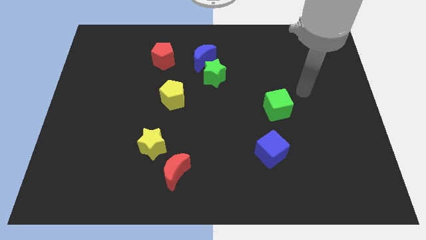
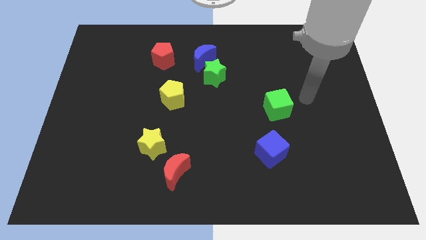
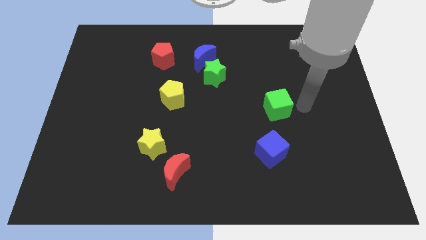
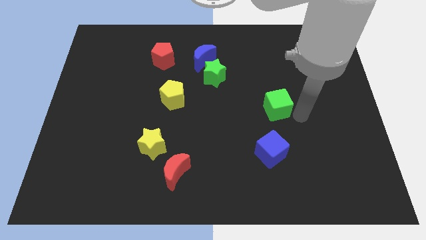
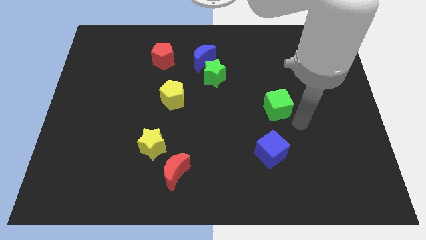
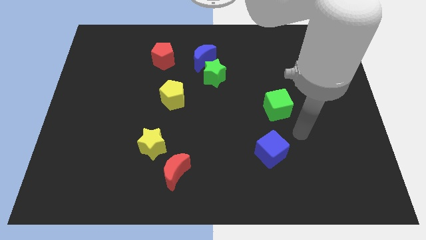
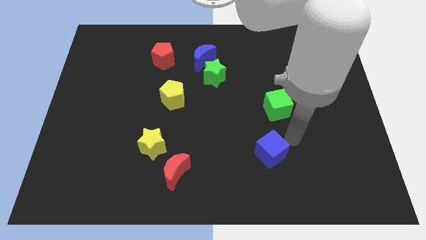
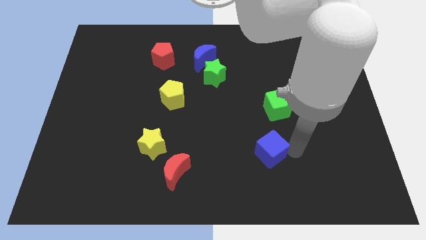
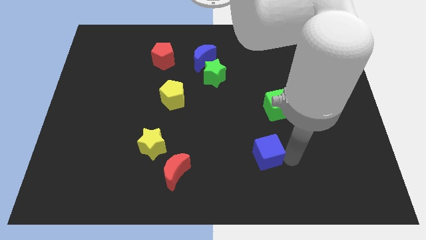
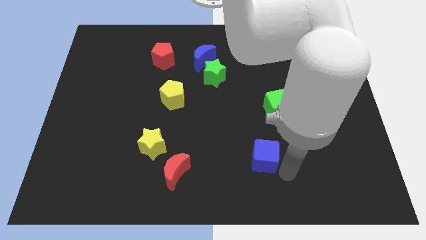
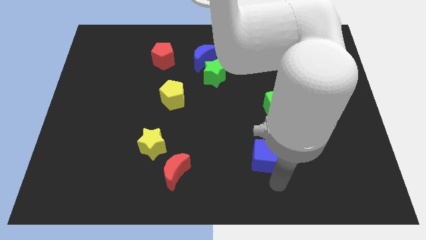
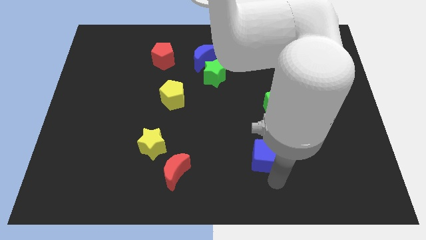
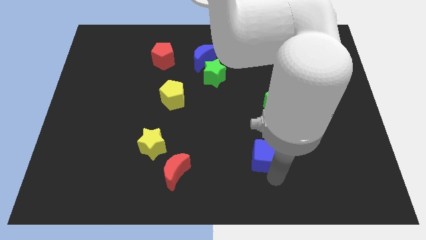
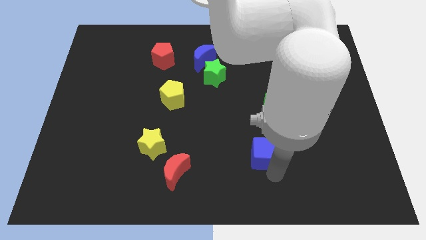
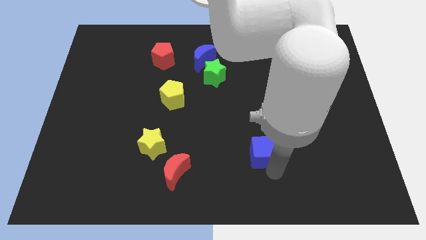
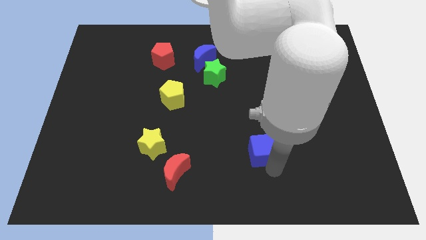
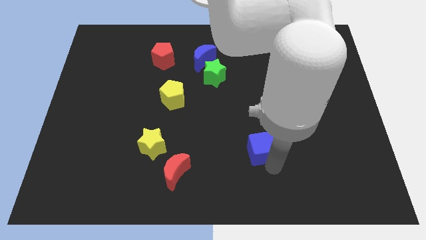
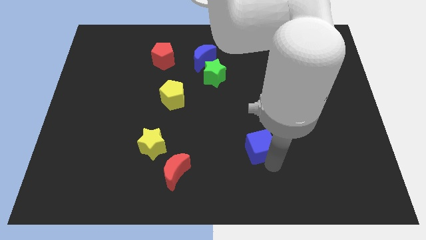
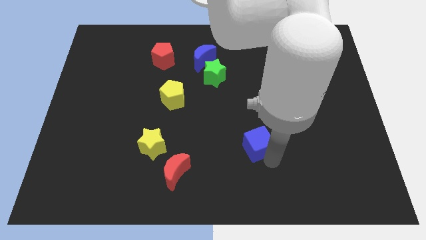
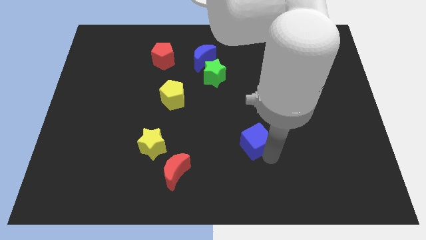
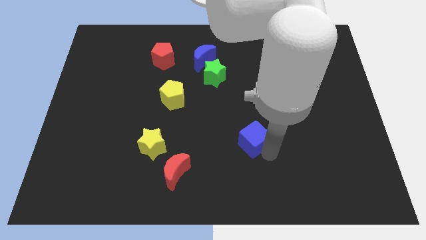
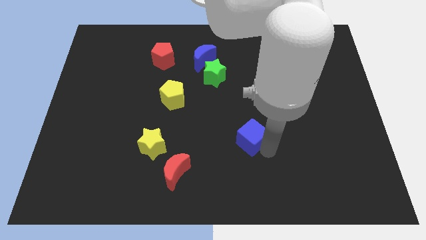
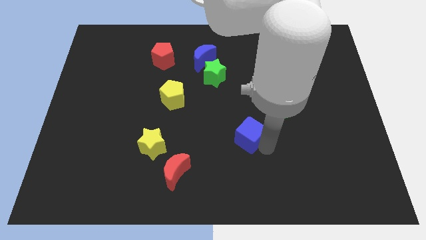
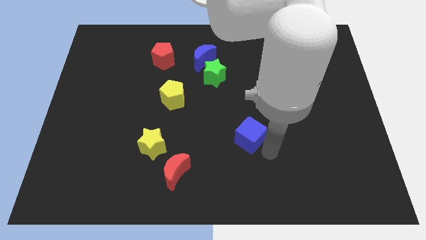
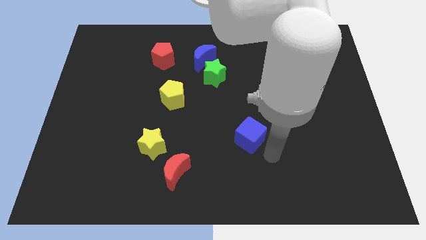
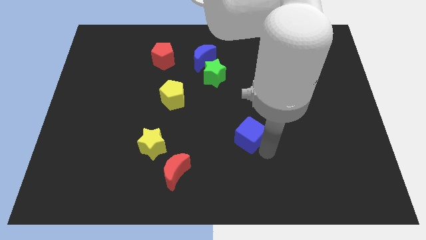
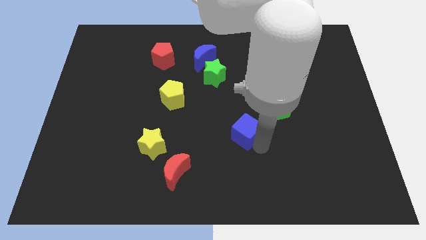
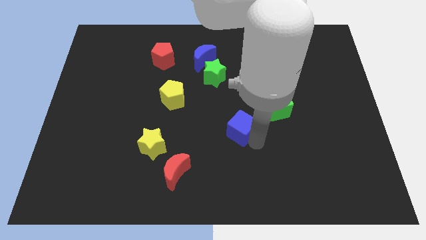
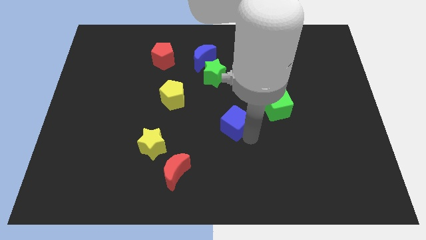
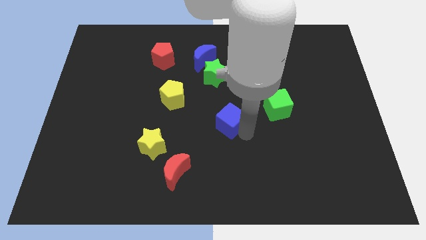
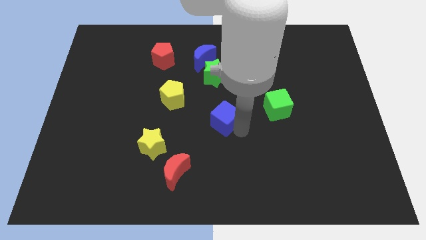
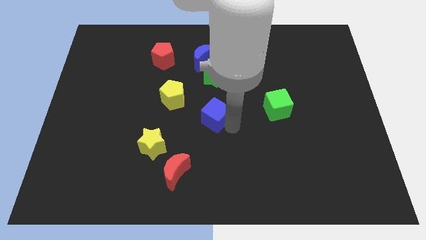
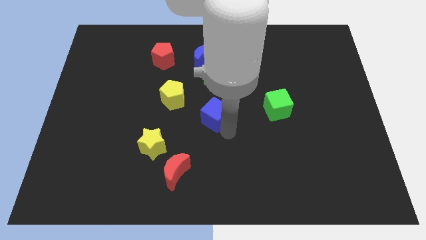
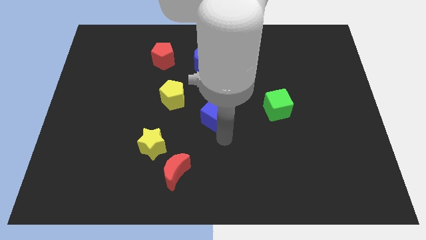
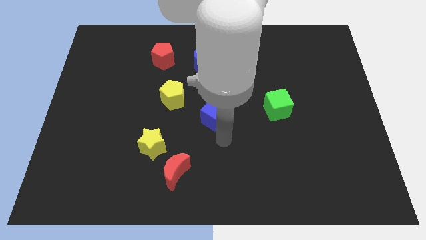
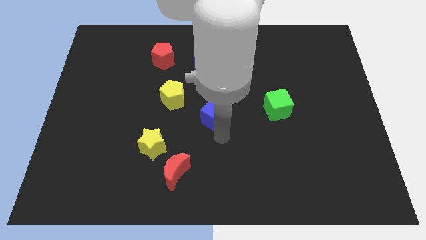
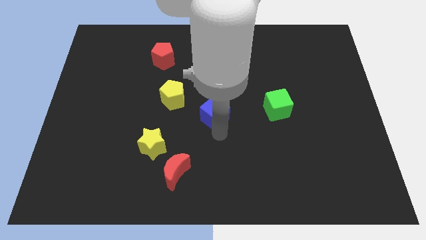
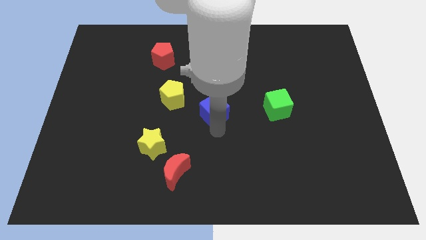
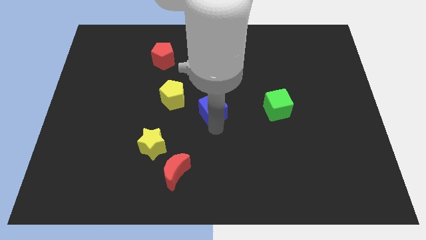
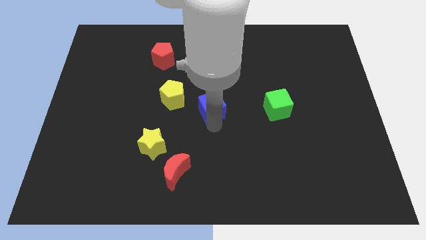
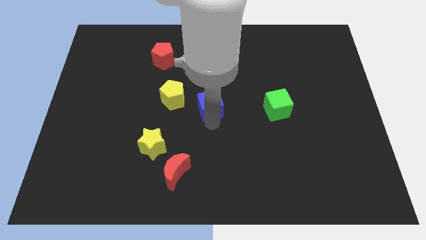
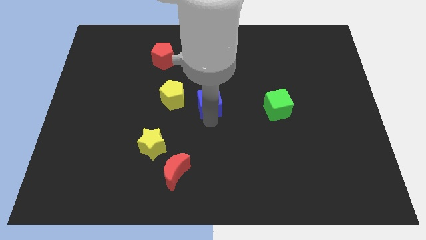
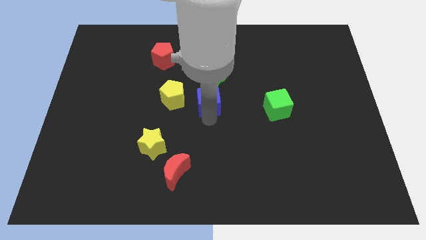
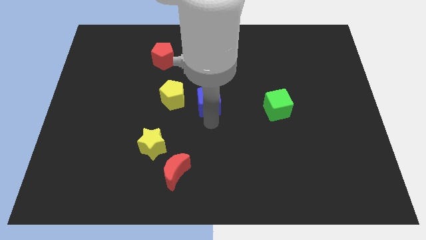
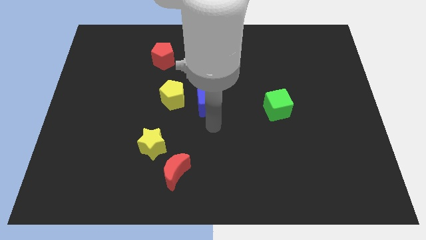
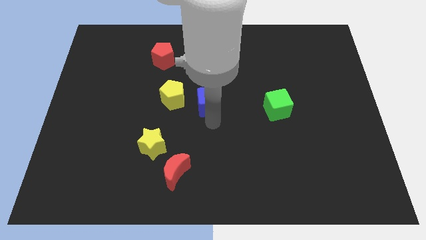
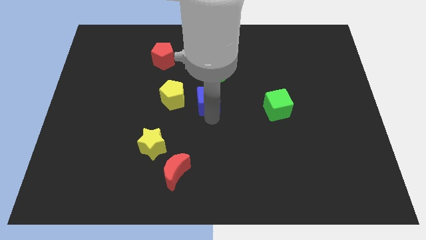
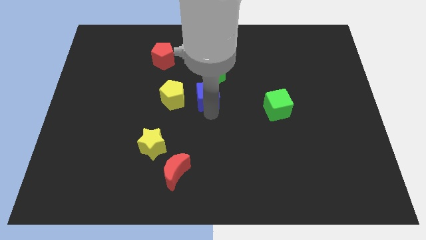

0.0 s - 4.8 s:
move the blue cube upwards and to the left diagonally

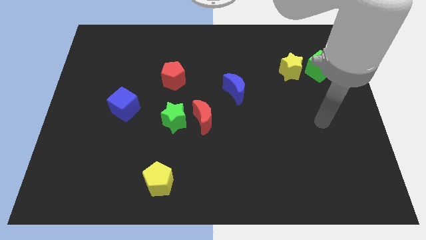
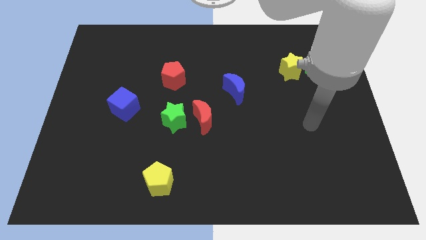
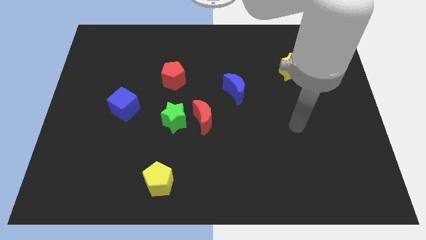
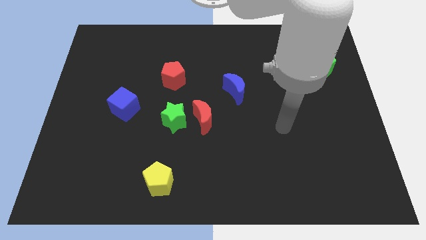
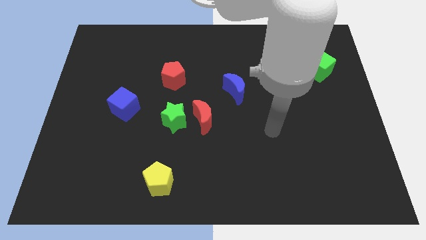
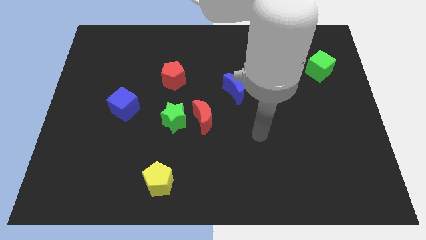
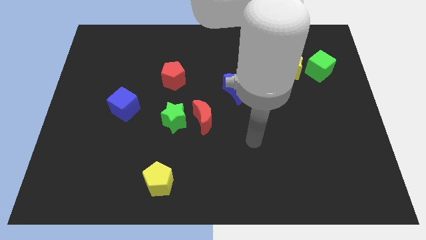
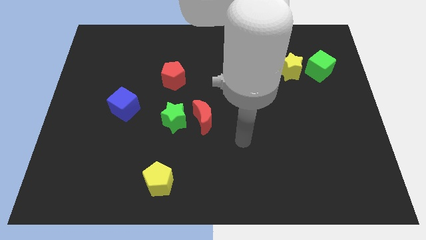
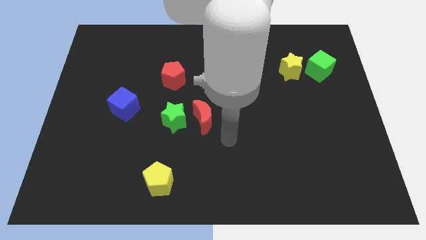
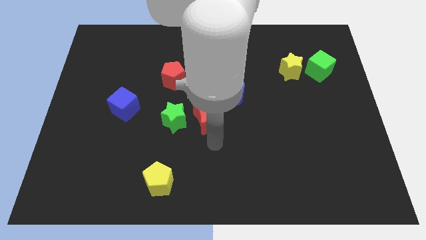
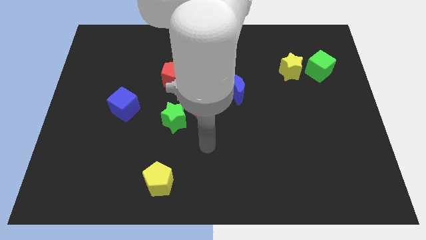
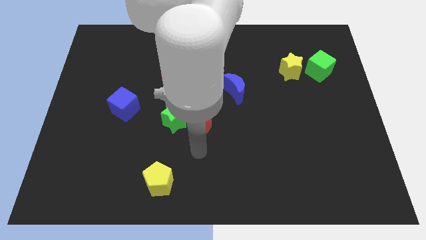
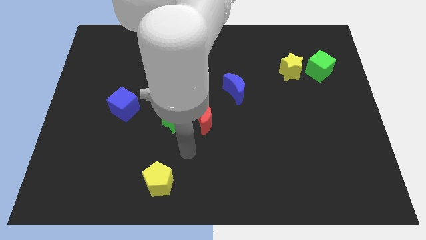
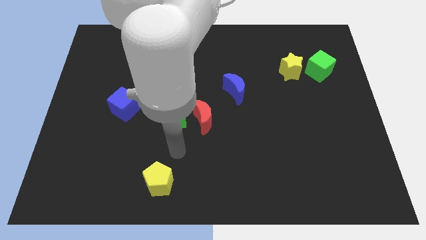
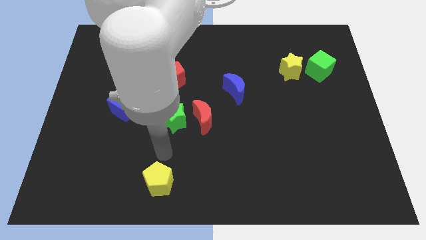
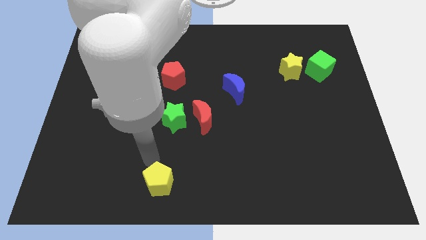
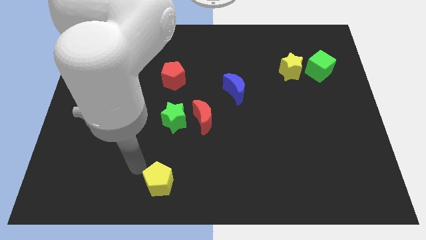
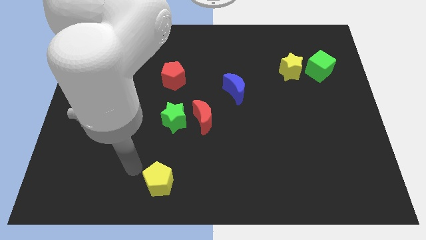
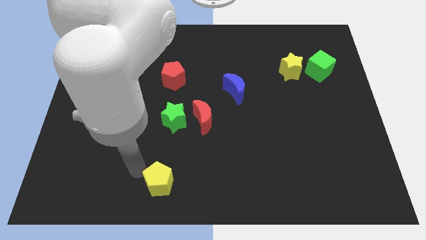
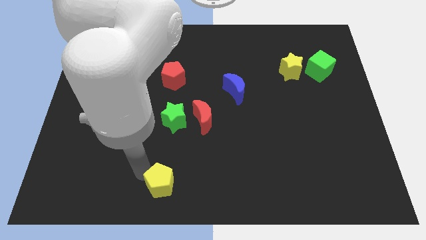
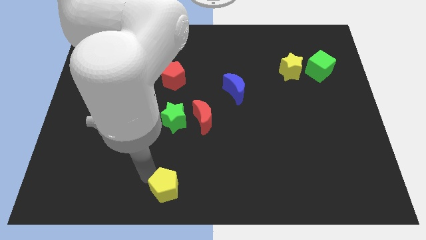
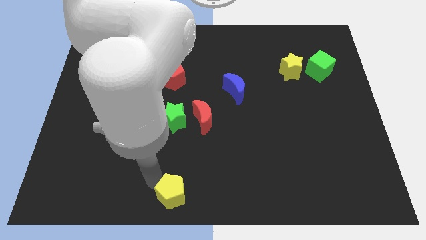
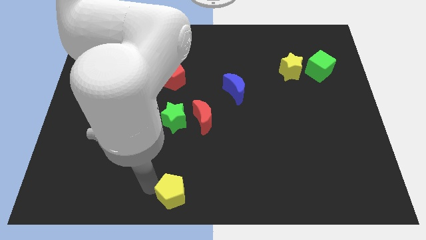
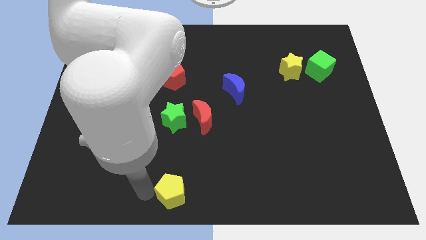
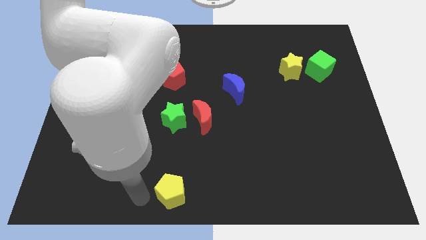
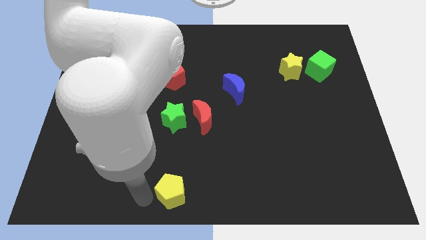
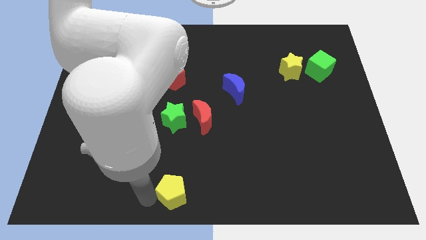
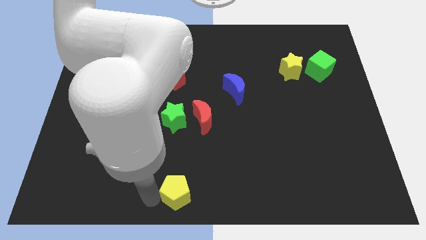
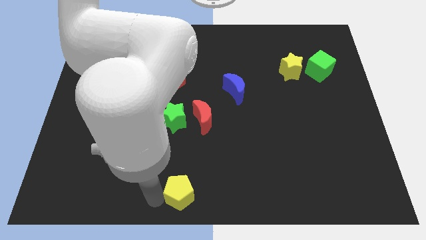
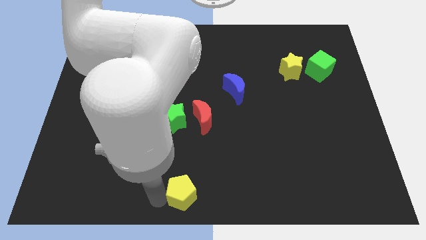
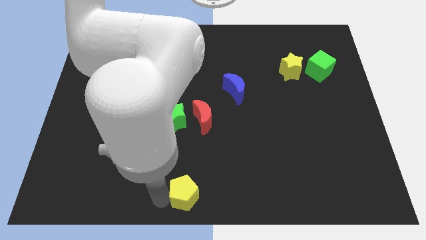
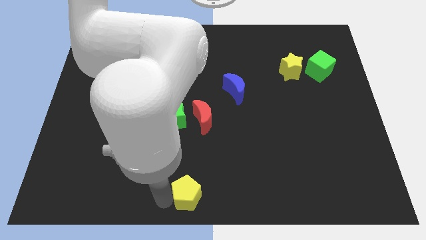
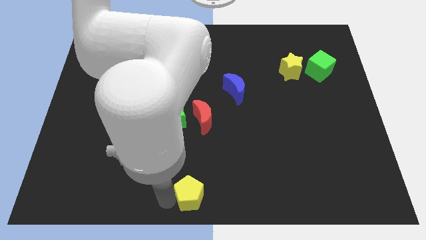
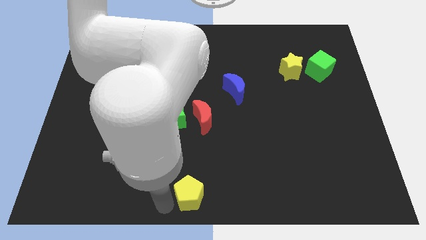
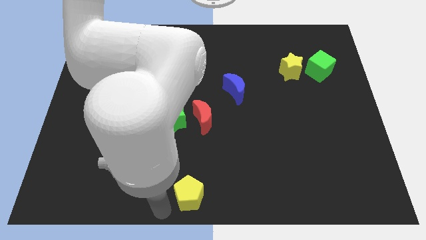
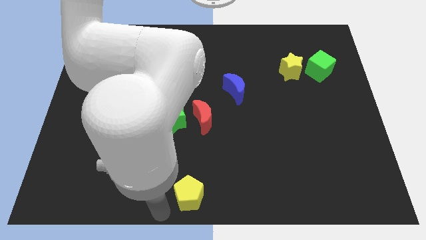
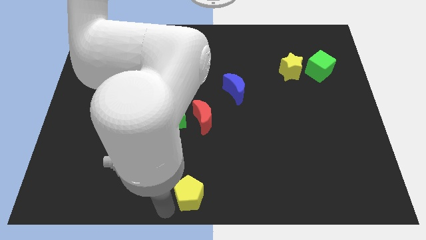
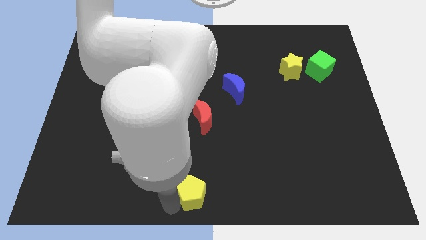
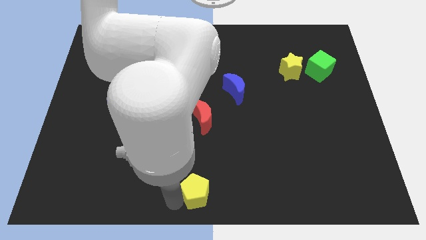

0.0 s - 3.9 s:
slightly move the yellow pentagon to the right

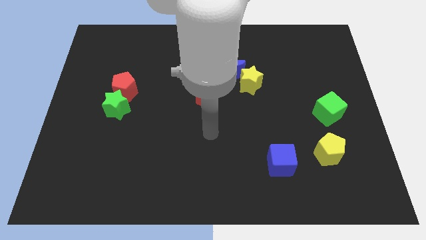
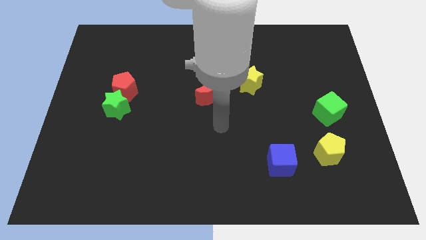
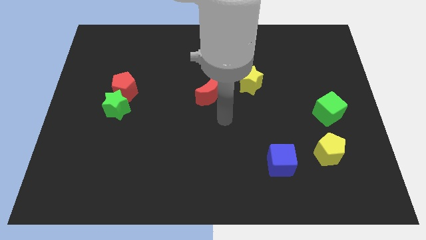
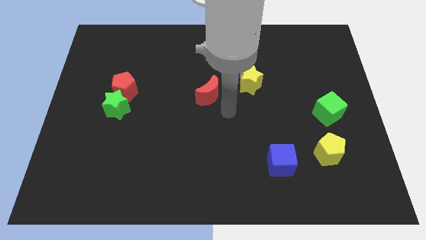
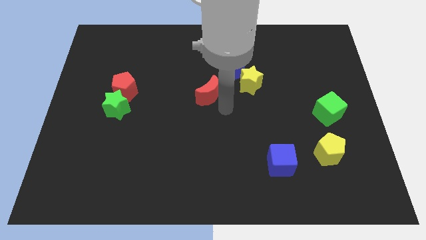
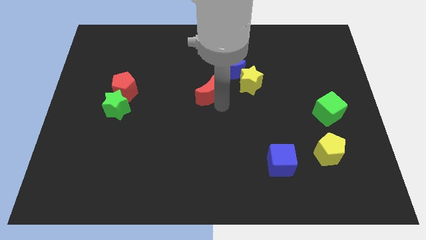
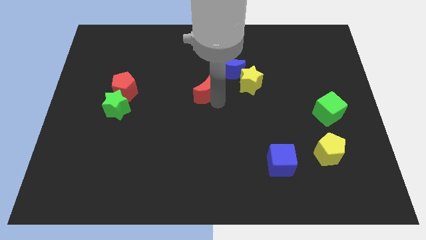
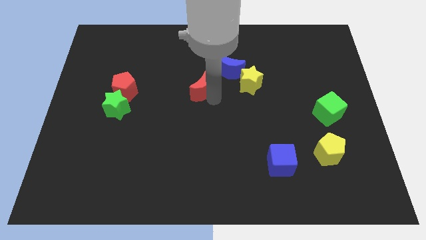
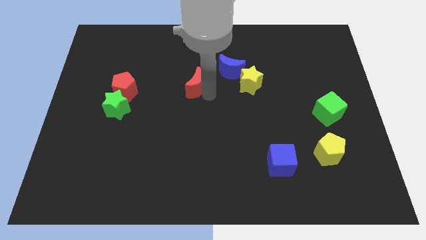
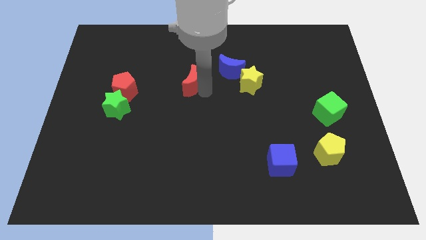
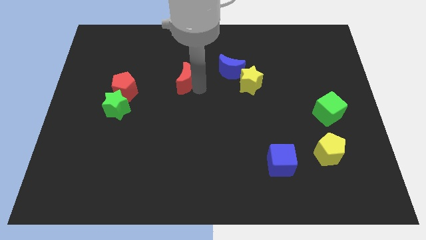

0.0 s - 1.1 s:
slightly slide the red moon diagonally upwards and to the left
